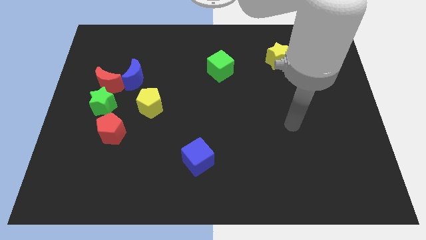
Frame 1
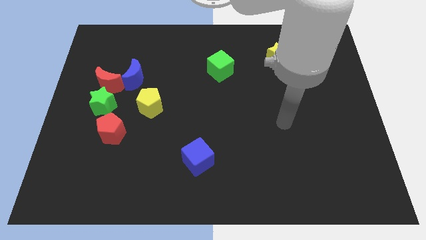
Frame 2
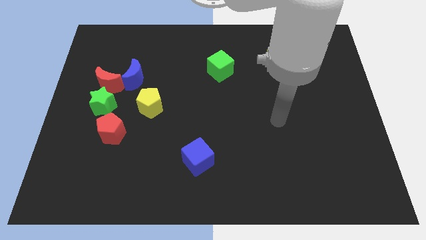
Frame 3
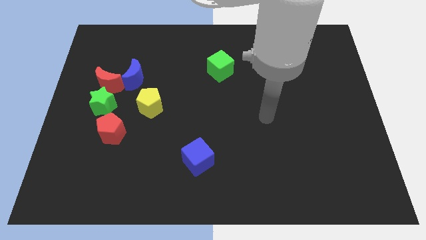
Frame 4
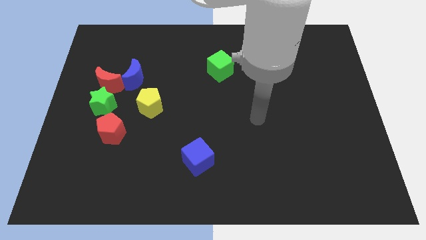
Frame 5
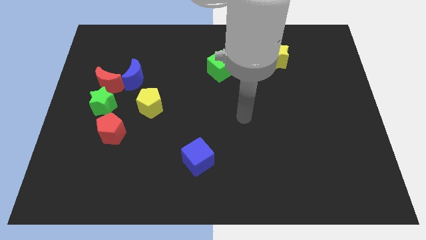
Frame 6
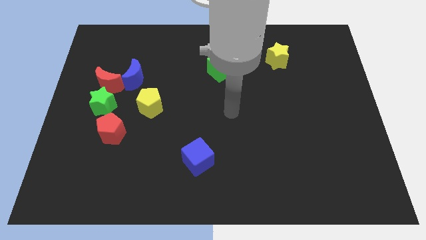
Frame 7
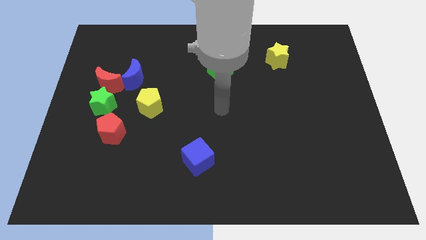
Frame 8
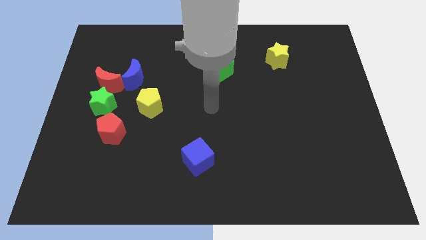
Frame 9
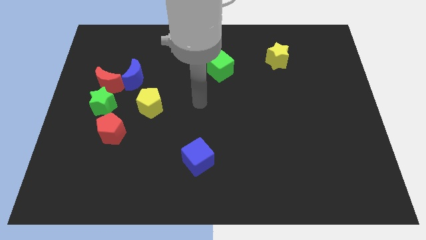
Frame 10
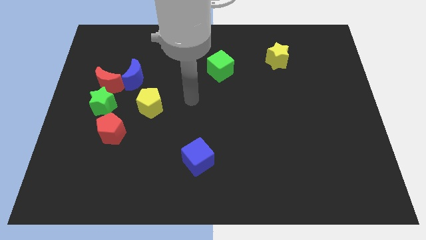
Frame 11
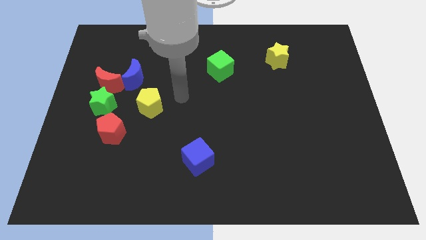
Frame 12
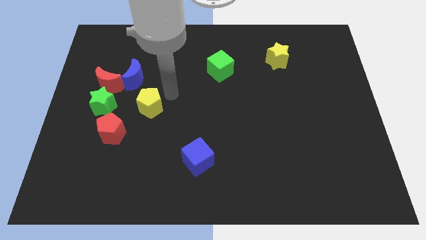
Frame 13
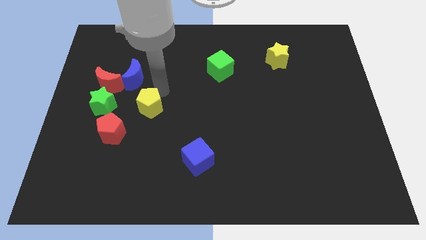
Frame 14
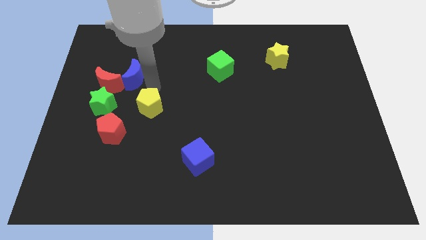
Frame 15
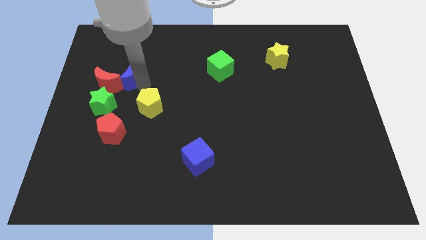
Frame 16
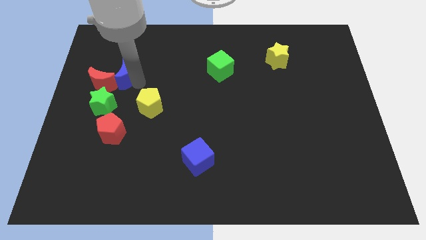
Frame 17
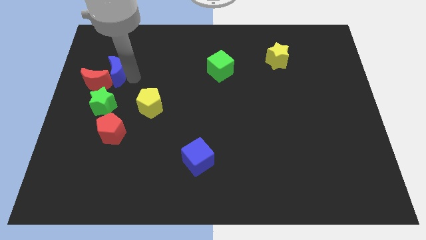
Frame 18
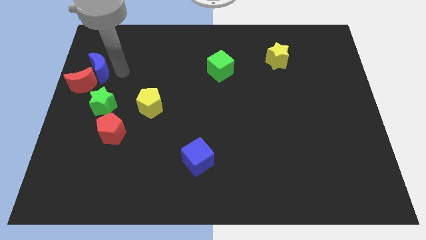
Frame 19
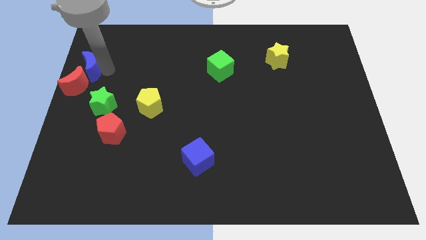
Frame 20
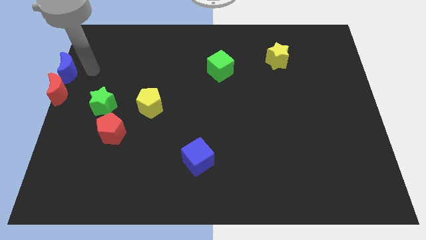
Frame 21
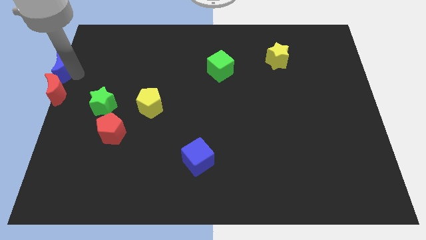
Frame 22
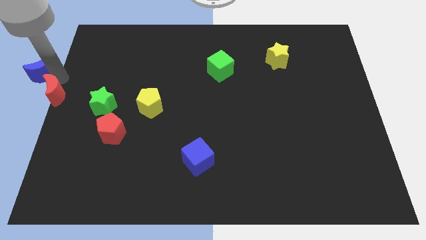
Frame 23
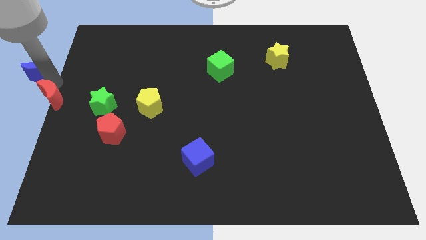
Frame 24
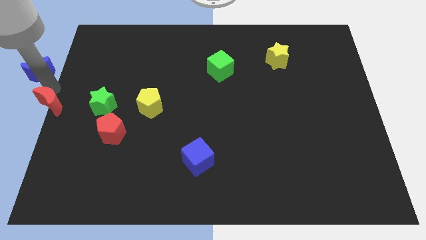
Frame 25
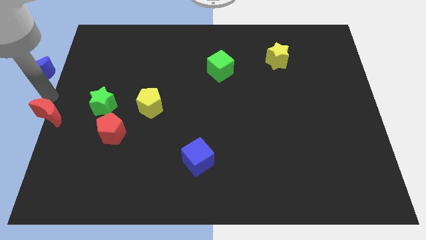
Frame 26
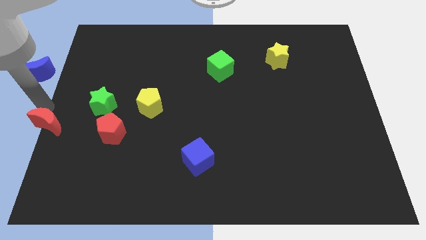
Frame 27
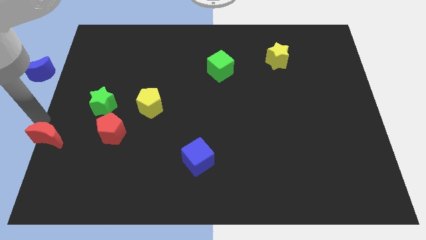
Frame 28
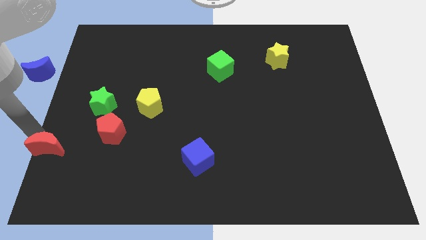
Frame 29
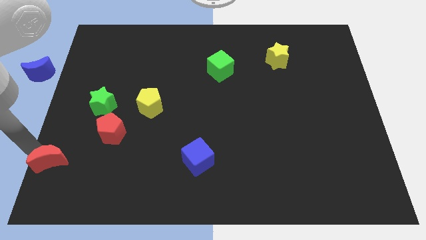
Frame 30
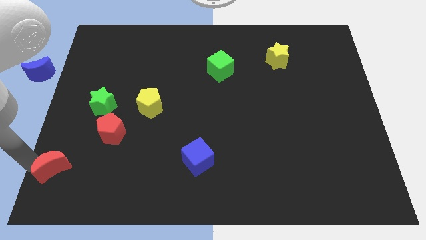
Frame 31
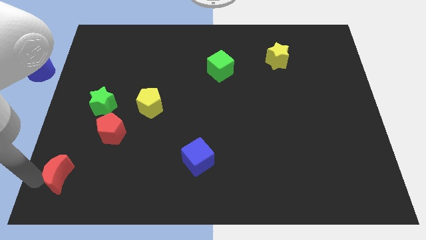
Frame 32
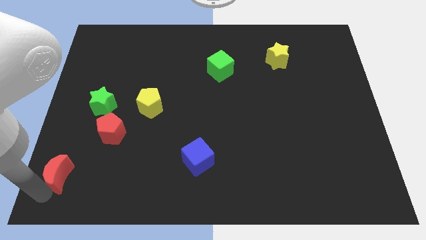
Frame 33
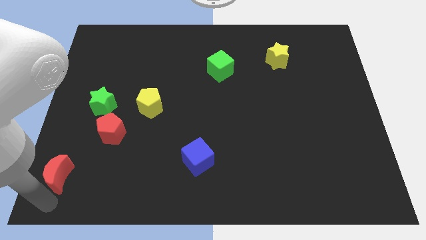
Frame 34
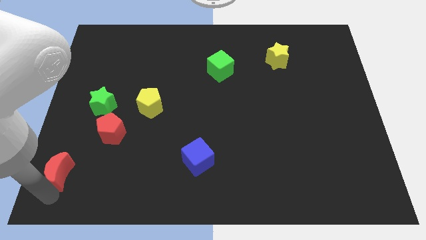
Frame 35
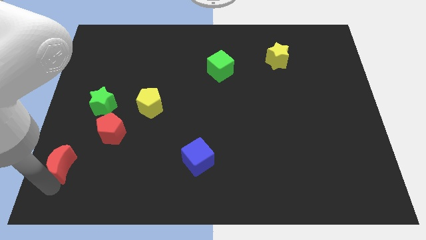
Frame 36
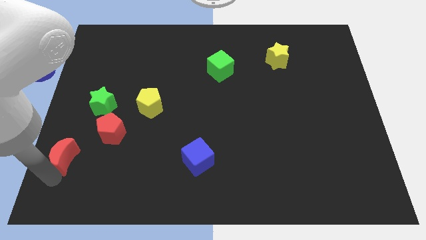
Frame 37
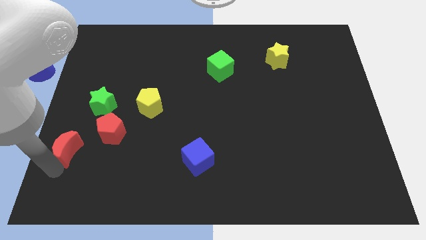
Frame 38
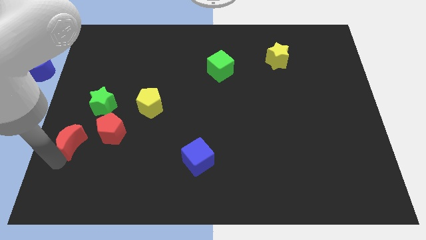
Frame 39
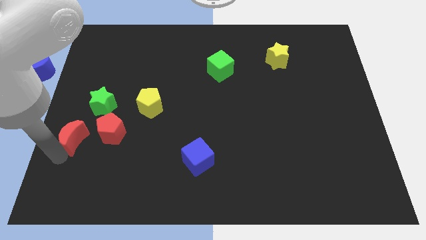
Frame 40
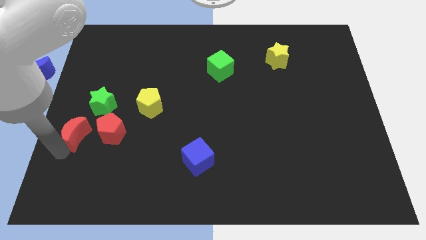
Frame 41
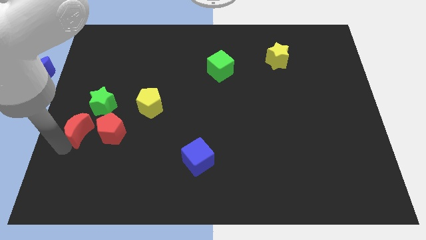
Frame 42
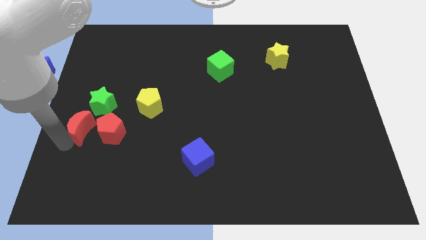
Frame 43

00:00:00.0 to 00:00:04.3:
put the red moon to the top left of the red pentagon

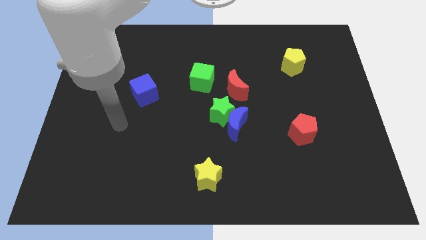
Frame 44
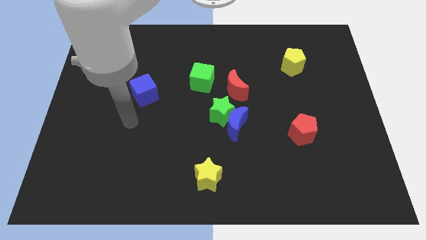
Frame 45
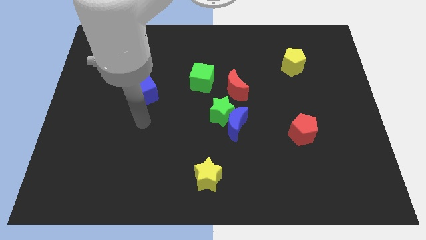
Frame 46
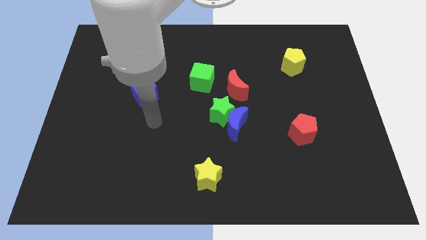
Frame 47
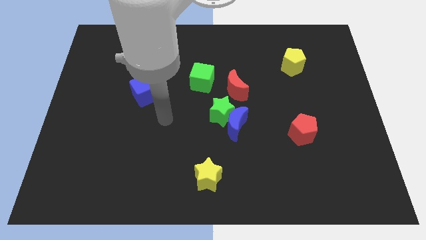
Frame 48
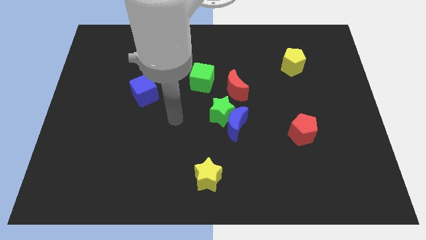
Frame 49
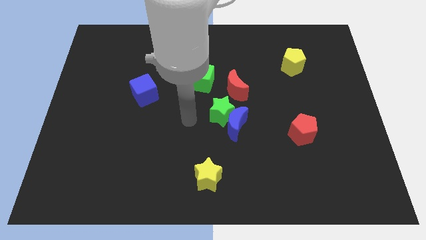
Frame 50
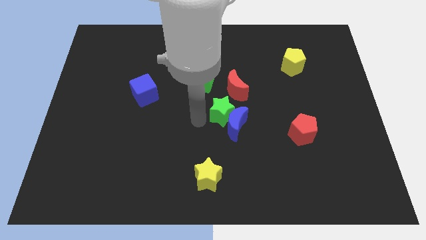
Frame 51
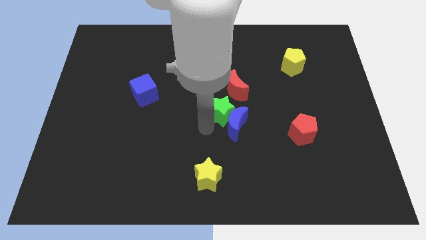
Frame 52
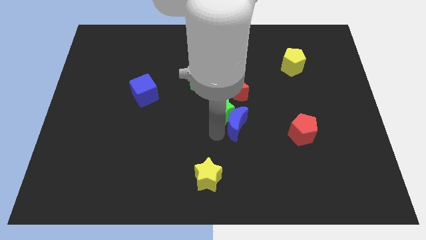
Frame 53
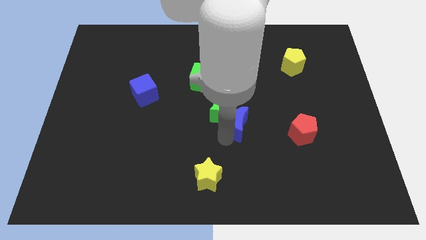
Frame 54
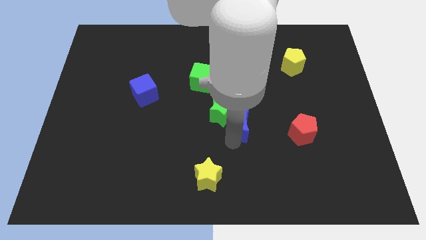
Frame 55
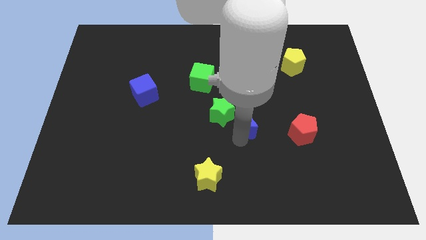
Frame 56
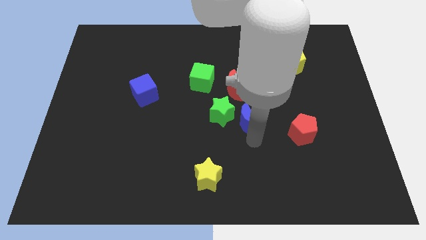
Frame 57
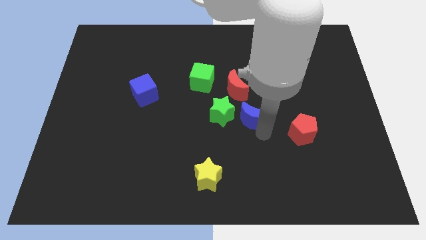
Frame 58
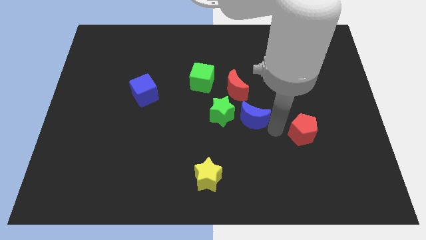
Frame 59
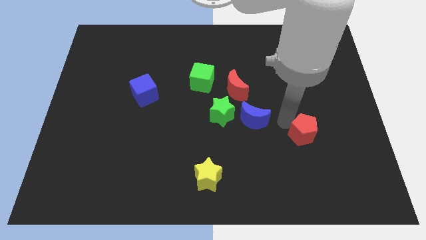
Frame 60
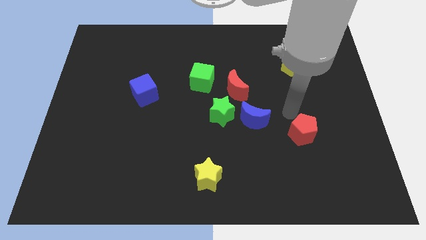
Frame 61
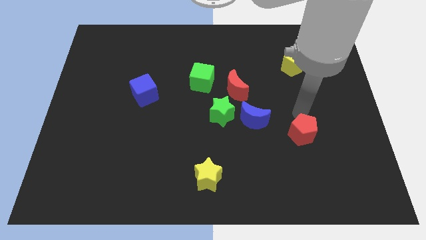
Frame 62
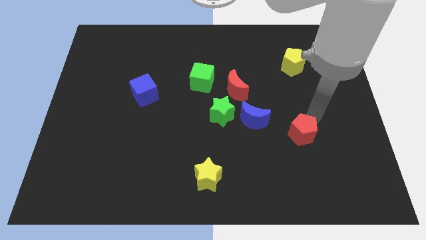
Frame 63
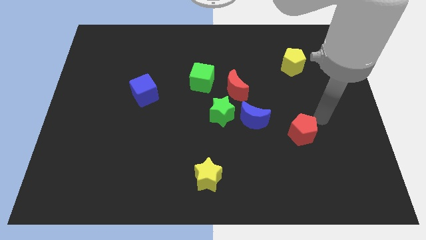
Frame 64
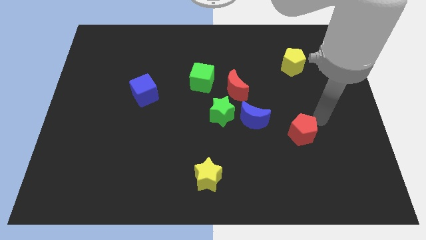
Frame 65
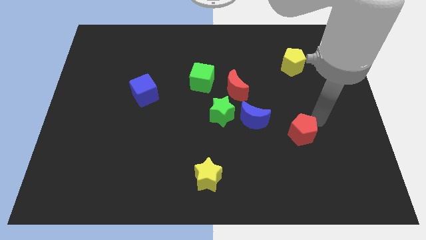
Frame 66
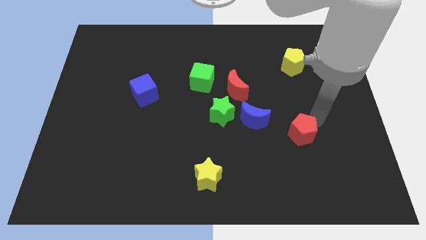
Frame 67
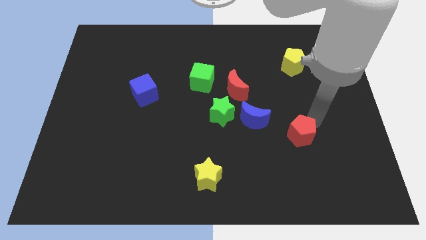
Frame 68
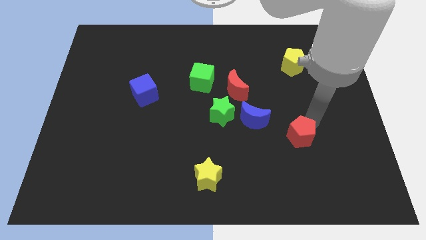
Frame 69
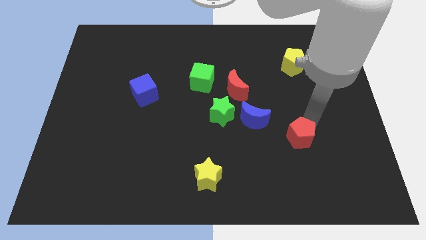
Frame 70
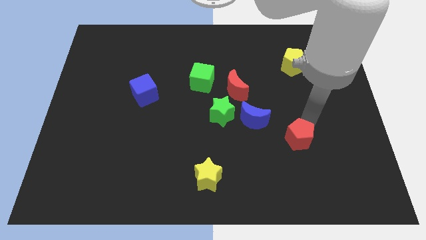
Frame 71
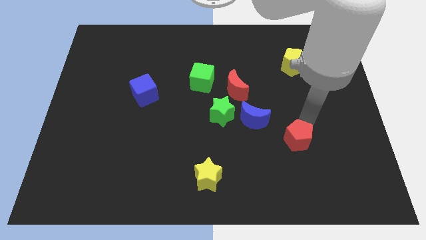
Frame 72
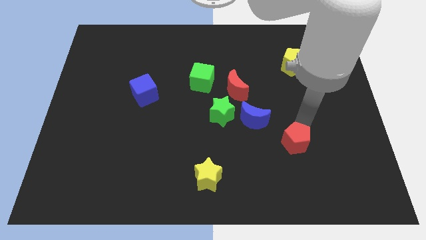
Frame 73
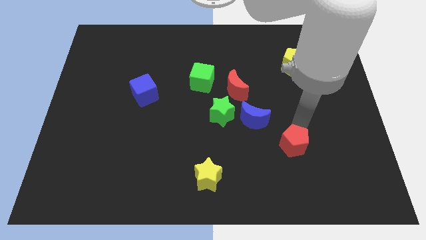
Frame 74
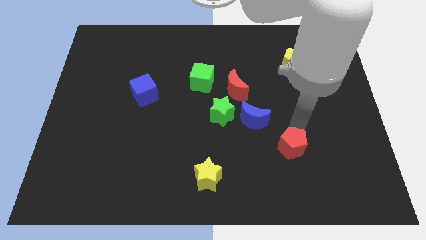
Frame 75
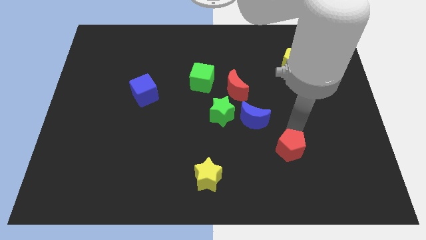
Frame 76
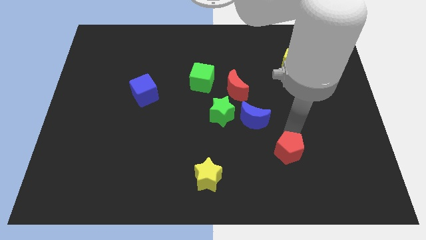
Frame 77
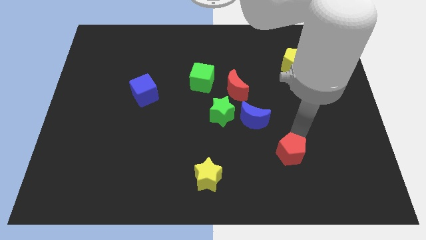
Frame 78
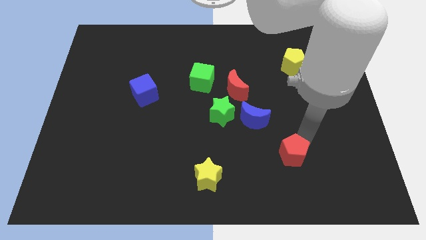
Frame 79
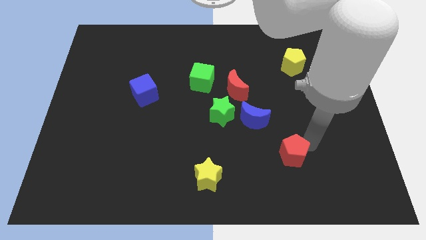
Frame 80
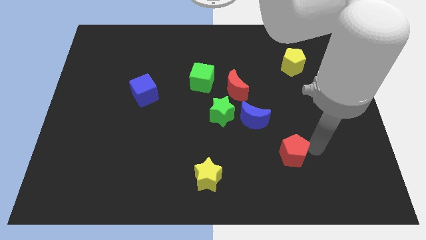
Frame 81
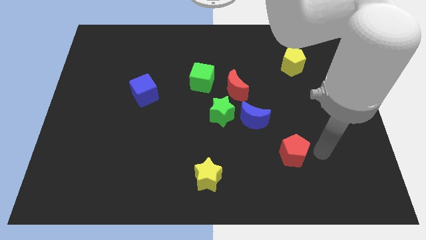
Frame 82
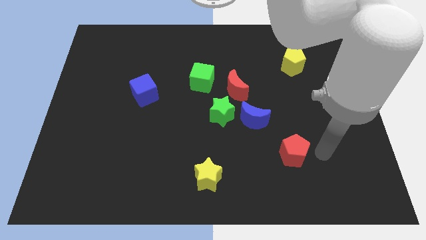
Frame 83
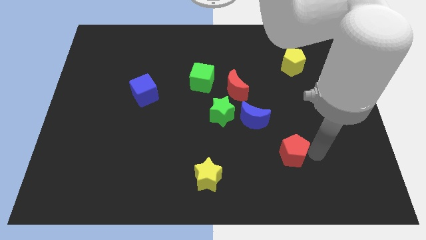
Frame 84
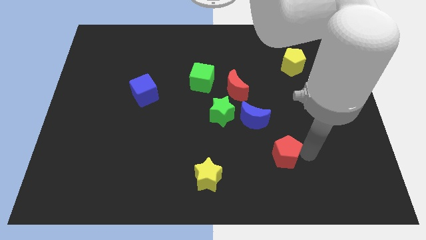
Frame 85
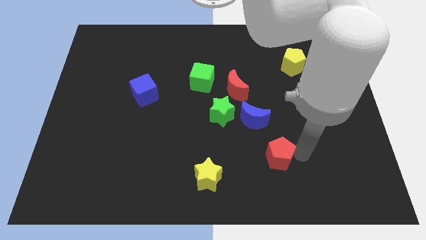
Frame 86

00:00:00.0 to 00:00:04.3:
push the red pentagon below the blue moon
